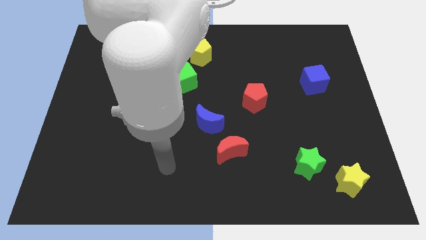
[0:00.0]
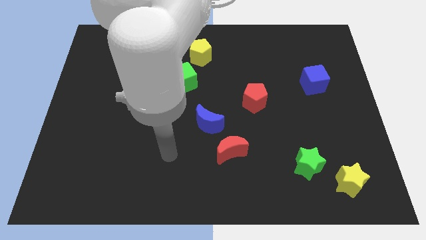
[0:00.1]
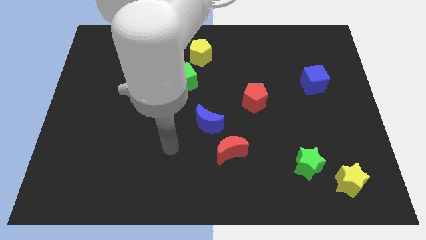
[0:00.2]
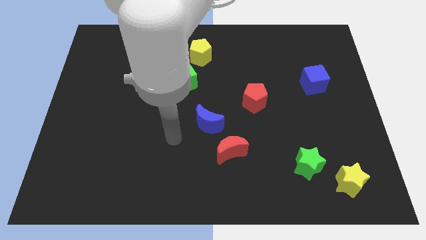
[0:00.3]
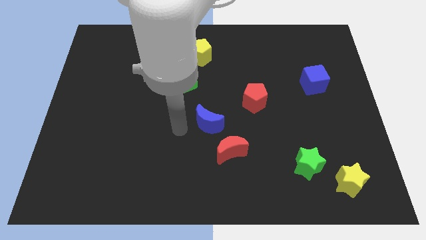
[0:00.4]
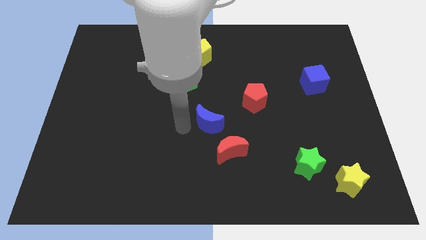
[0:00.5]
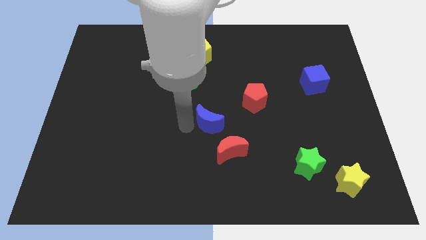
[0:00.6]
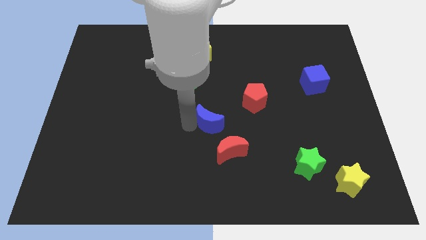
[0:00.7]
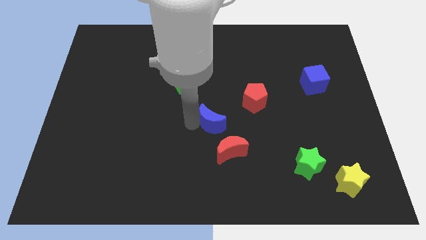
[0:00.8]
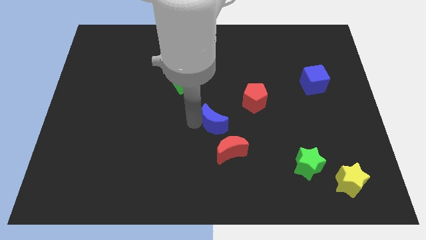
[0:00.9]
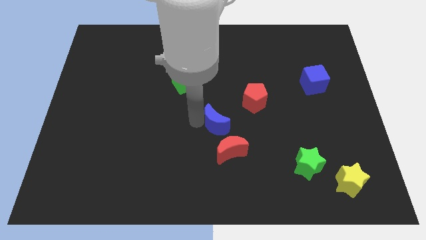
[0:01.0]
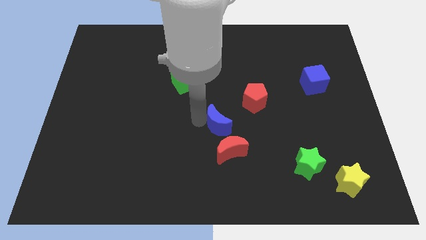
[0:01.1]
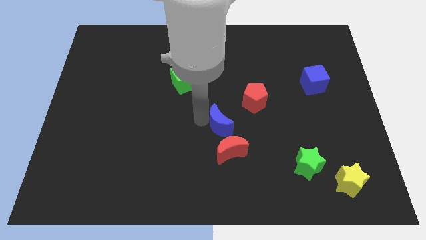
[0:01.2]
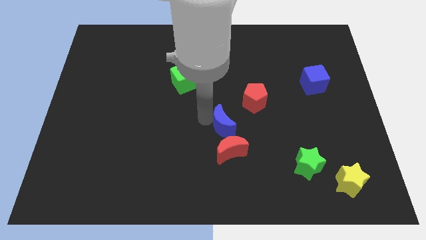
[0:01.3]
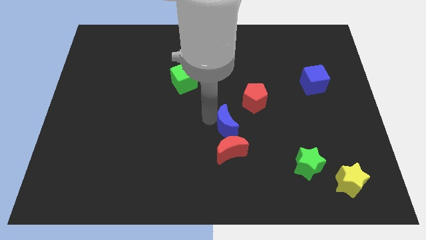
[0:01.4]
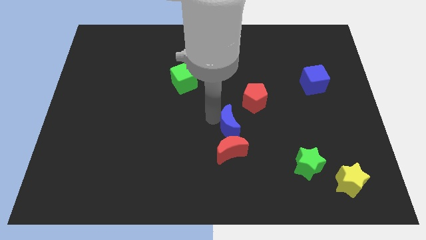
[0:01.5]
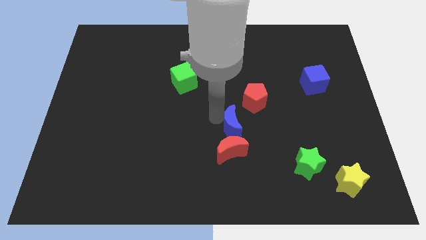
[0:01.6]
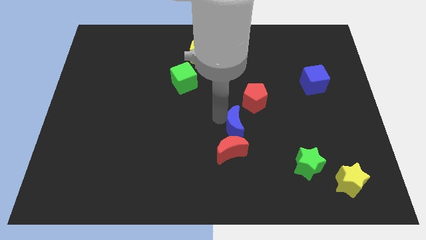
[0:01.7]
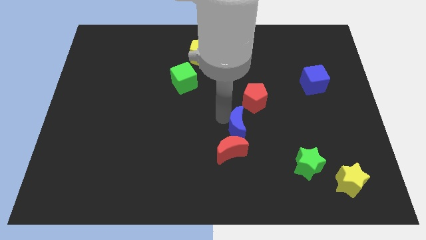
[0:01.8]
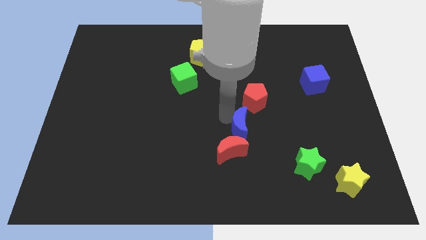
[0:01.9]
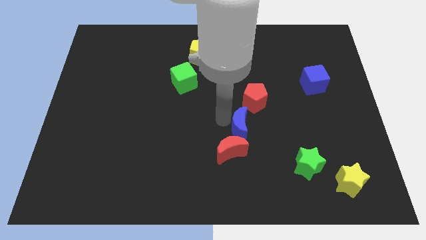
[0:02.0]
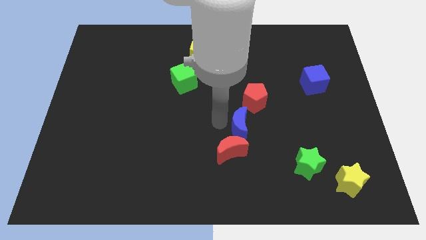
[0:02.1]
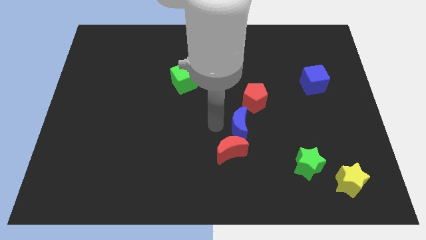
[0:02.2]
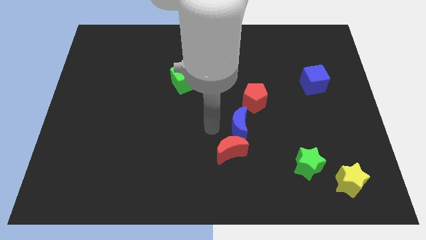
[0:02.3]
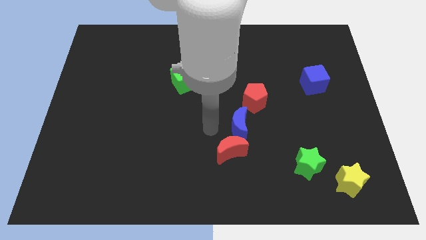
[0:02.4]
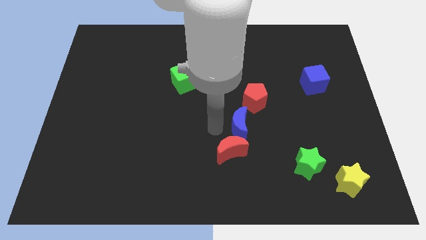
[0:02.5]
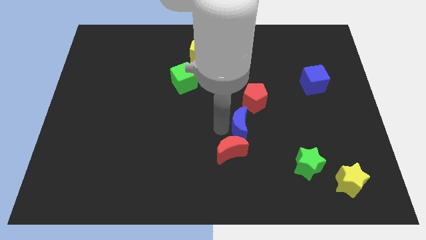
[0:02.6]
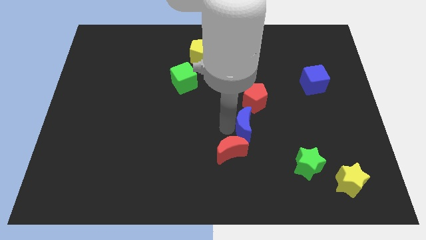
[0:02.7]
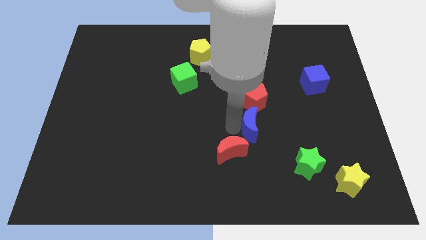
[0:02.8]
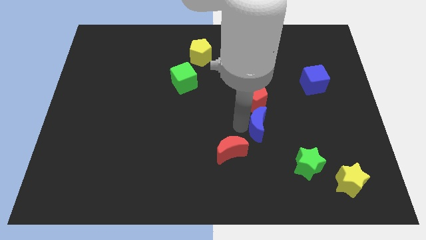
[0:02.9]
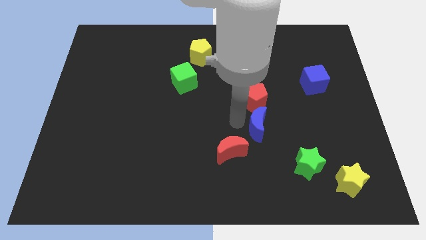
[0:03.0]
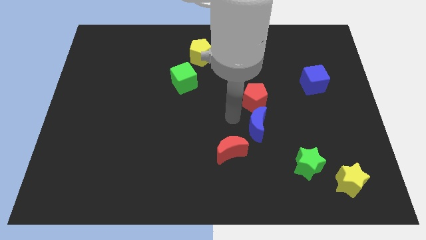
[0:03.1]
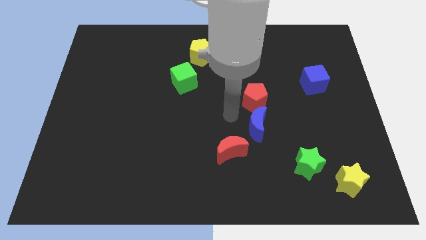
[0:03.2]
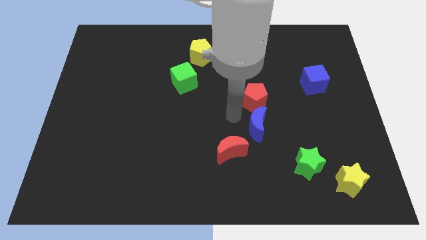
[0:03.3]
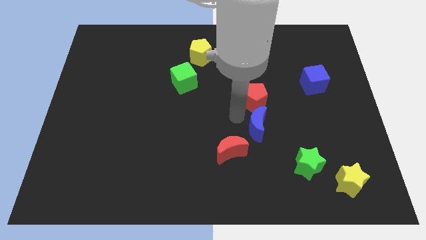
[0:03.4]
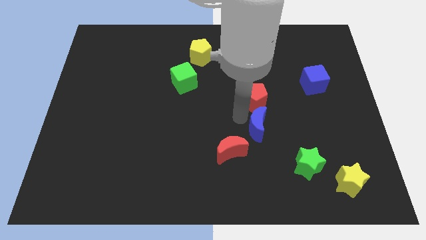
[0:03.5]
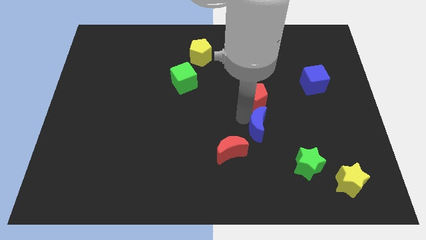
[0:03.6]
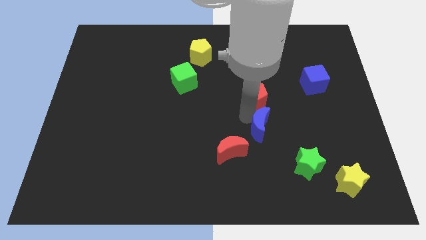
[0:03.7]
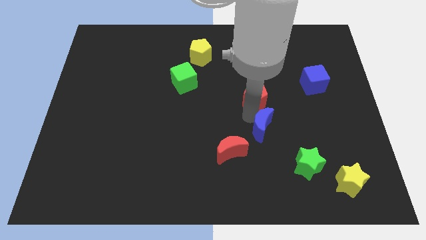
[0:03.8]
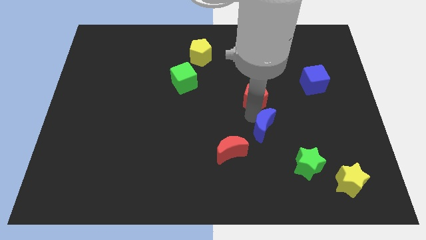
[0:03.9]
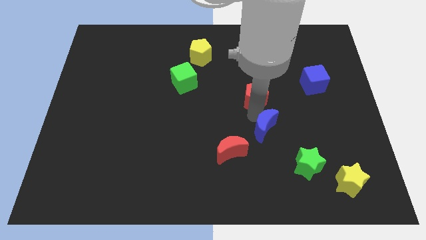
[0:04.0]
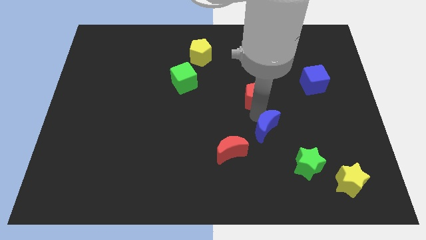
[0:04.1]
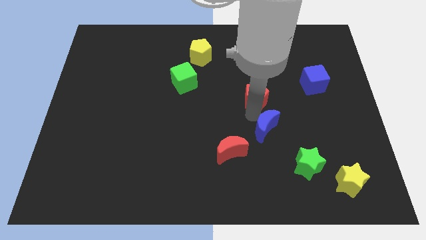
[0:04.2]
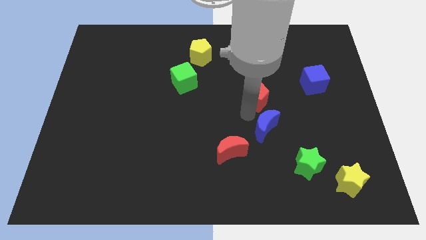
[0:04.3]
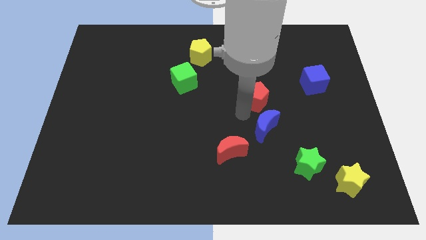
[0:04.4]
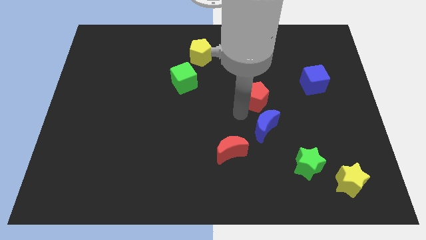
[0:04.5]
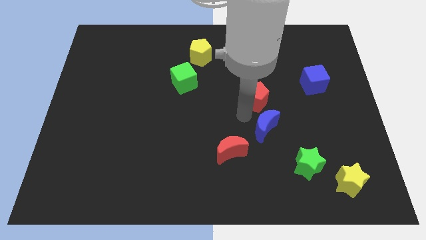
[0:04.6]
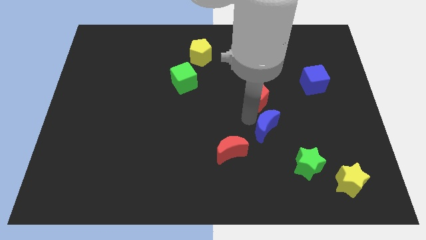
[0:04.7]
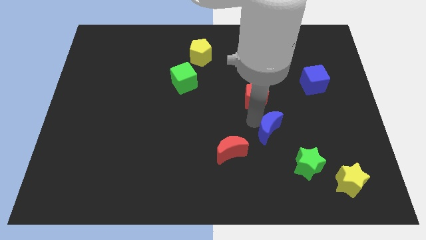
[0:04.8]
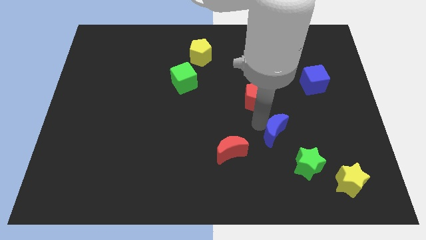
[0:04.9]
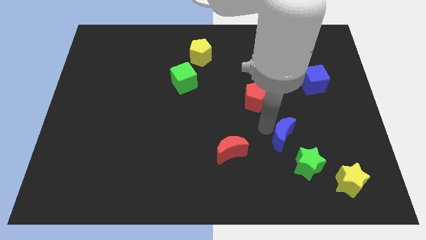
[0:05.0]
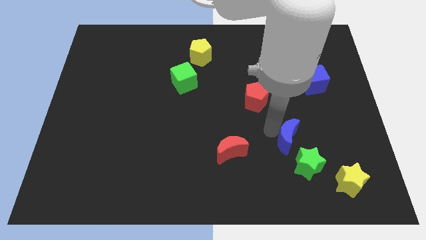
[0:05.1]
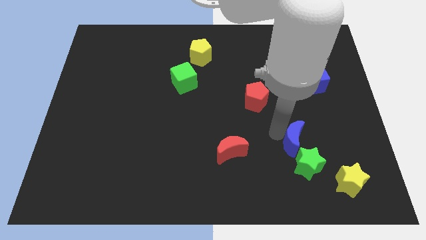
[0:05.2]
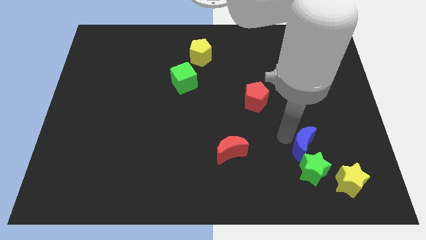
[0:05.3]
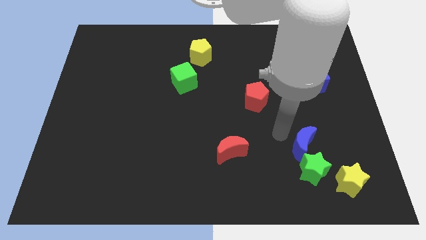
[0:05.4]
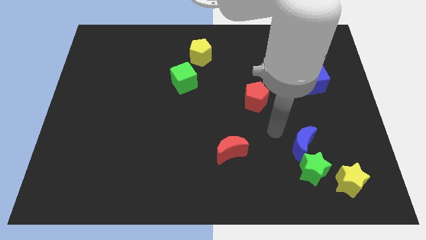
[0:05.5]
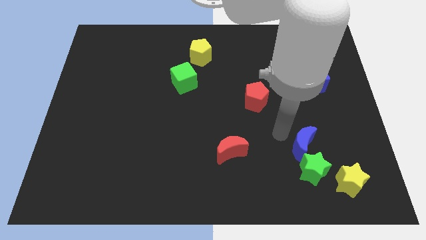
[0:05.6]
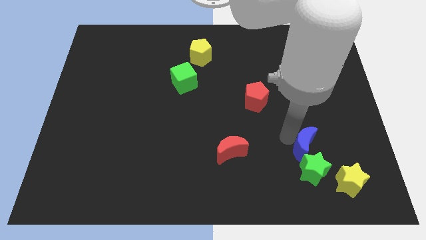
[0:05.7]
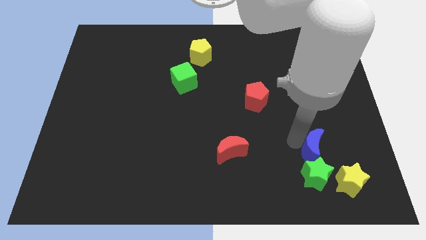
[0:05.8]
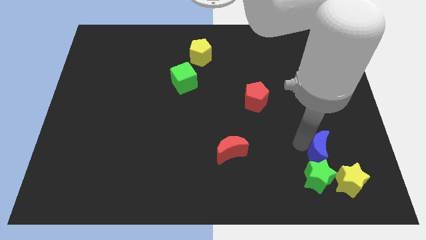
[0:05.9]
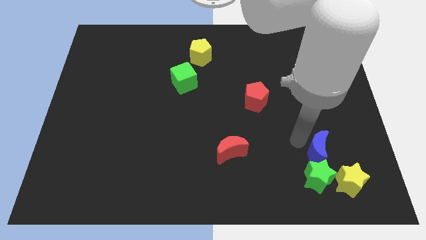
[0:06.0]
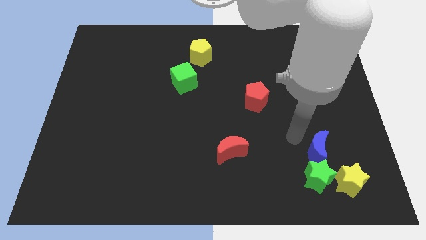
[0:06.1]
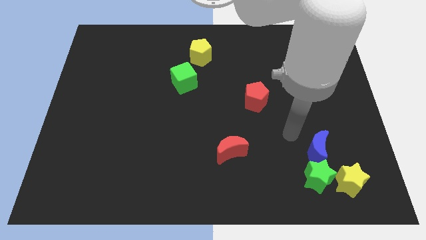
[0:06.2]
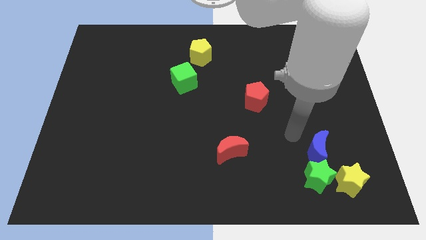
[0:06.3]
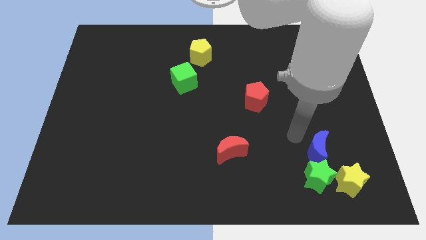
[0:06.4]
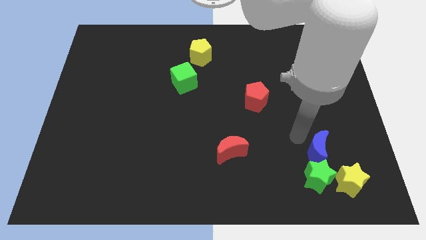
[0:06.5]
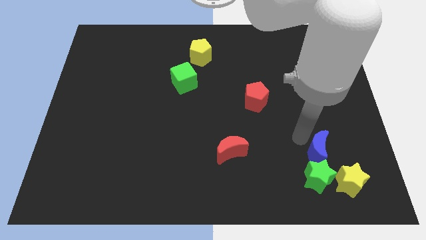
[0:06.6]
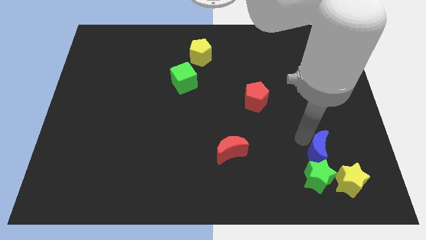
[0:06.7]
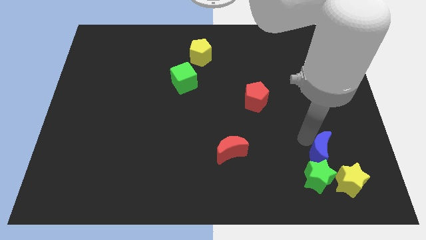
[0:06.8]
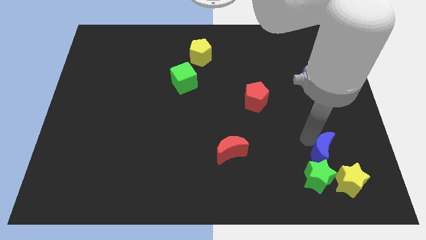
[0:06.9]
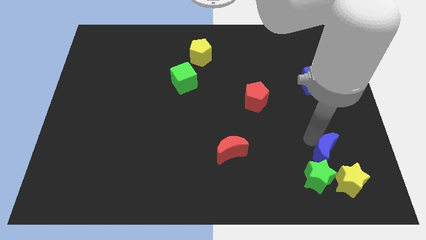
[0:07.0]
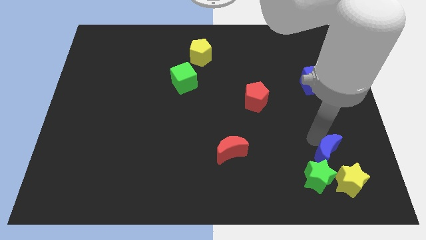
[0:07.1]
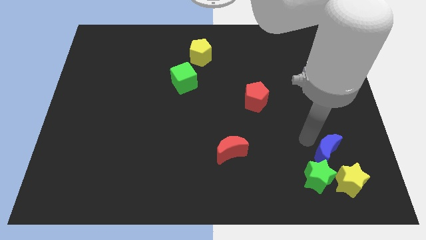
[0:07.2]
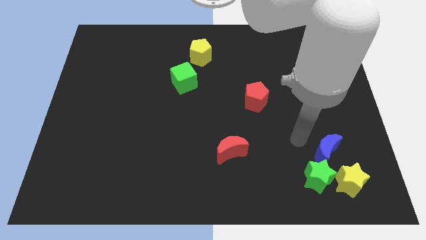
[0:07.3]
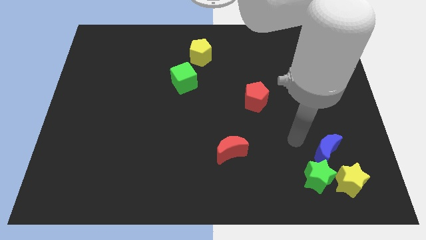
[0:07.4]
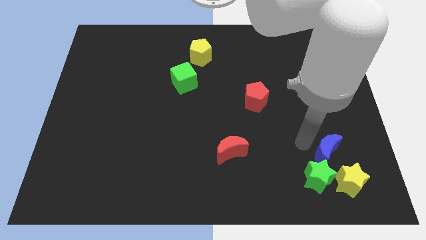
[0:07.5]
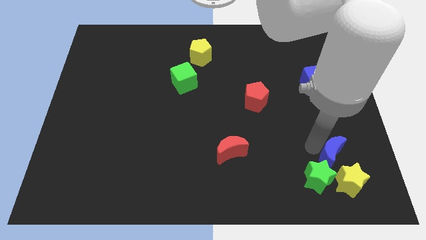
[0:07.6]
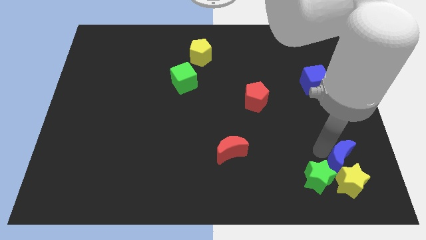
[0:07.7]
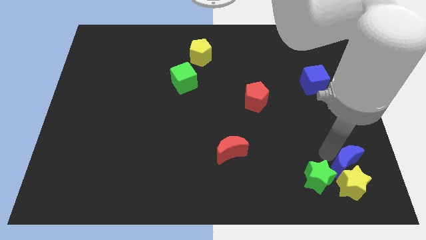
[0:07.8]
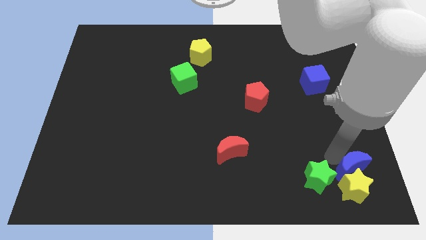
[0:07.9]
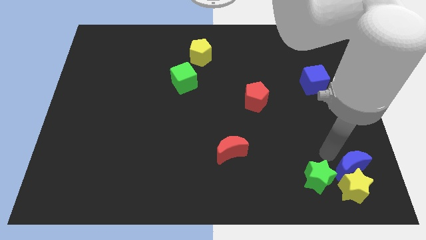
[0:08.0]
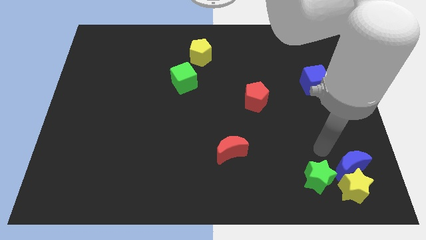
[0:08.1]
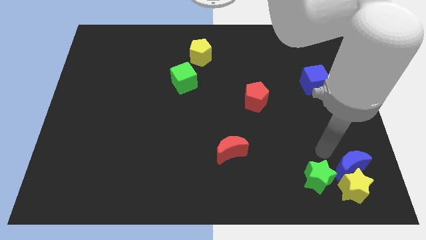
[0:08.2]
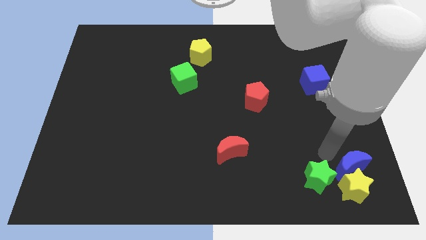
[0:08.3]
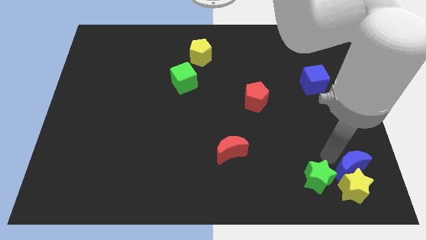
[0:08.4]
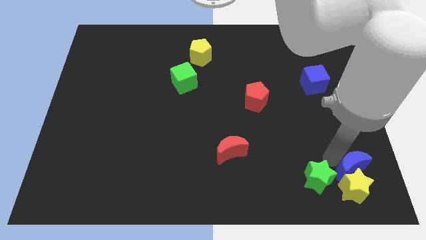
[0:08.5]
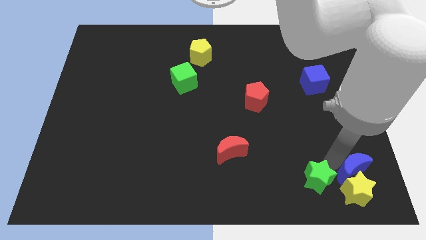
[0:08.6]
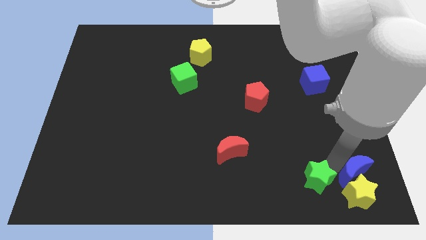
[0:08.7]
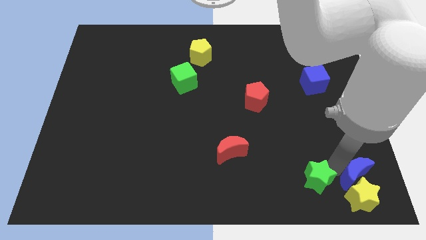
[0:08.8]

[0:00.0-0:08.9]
slide the blue moon to the bottom right of the board
